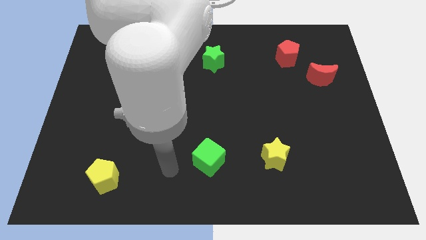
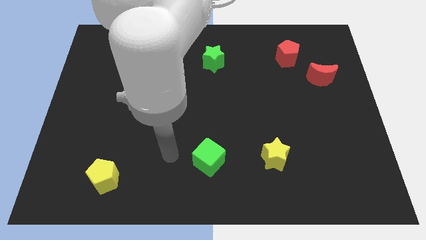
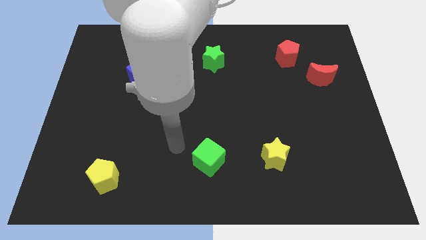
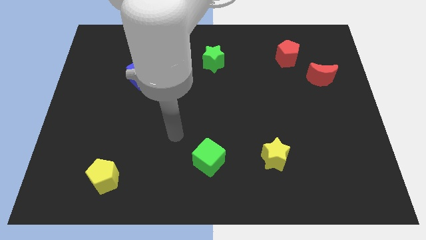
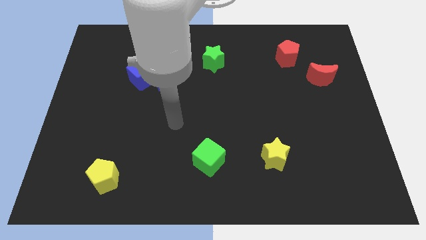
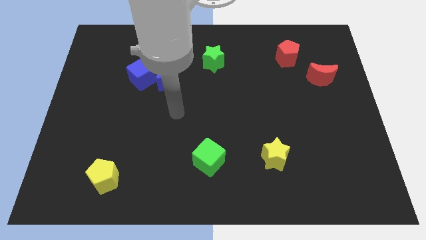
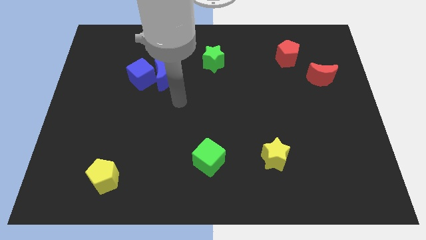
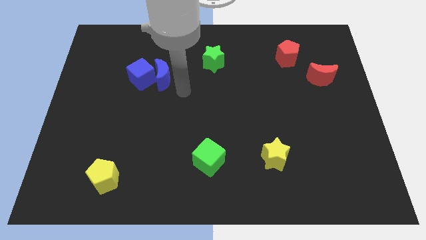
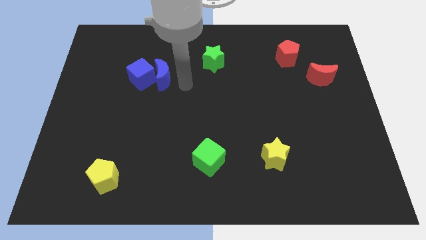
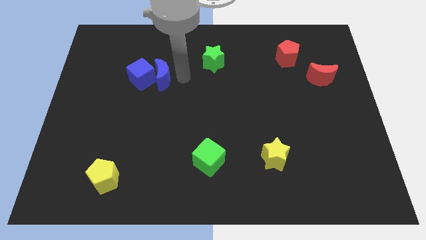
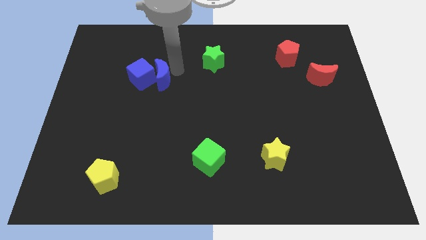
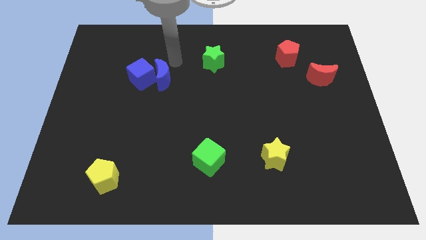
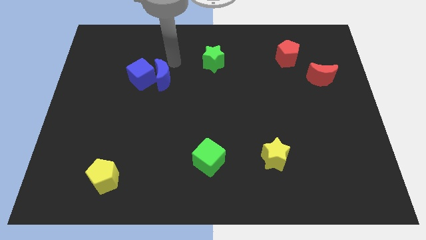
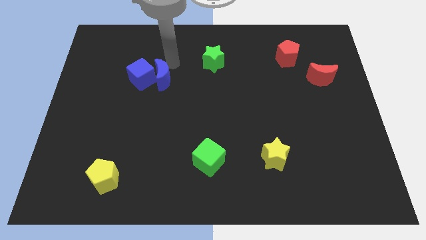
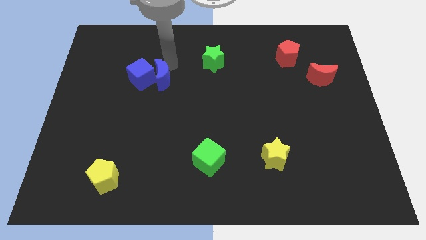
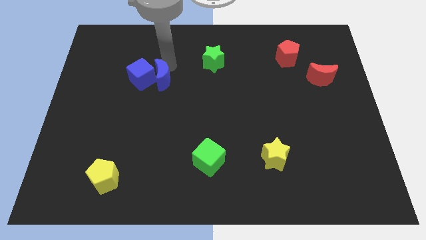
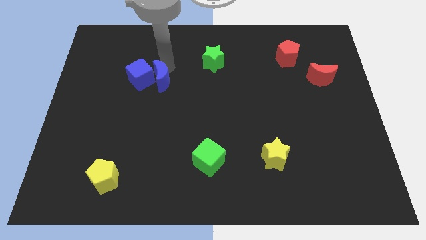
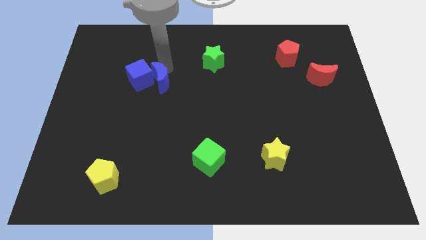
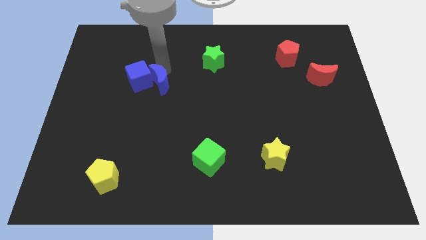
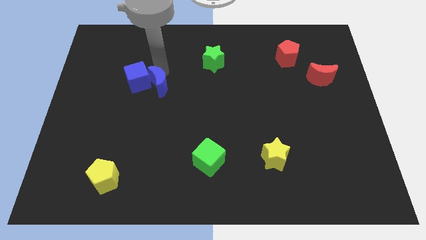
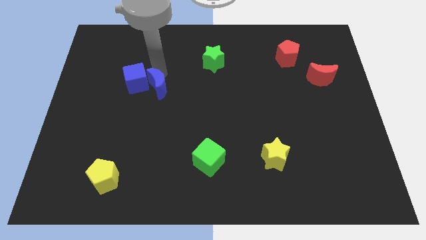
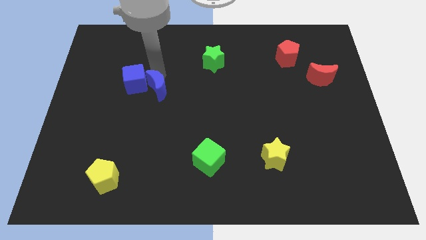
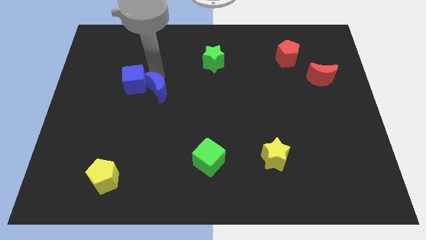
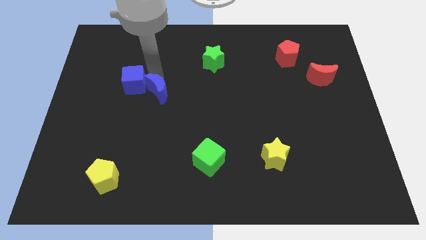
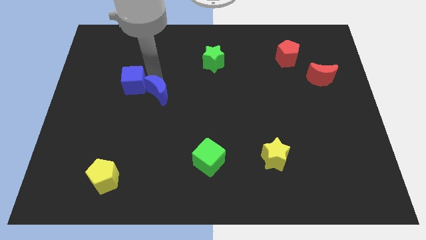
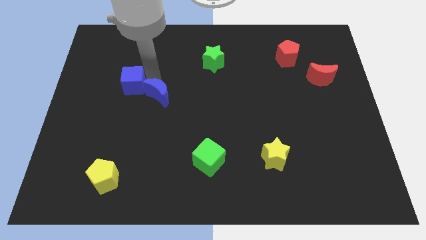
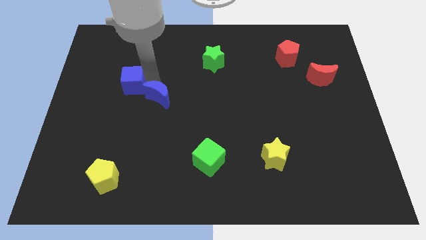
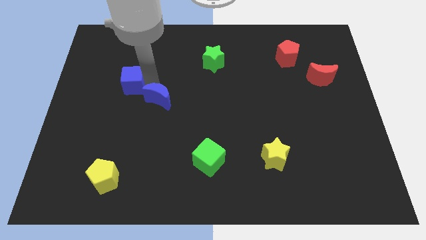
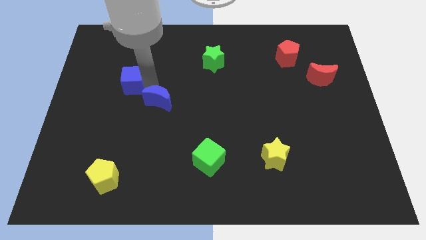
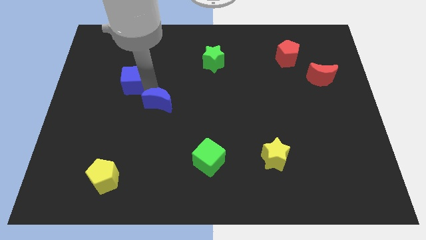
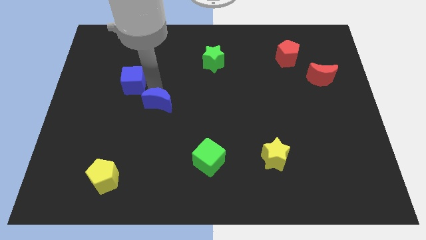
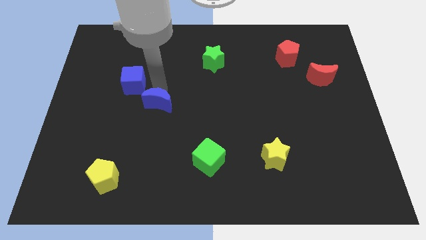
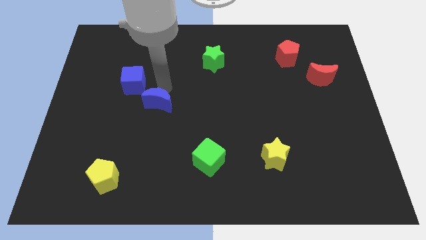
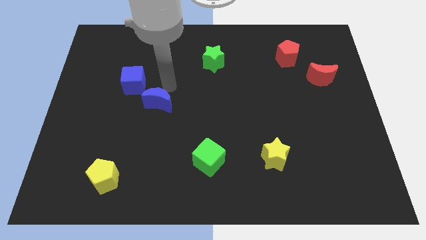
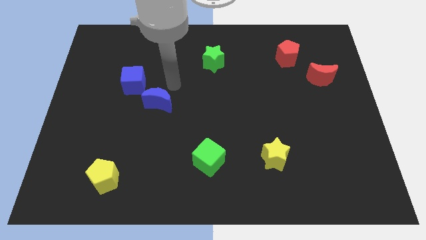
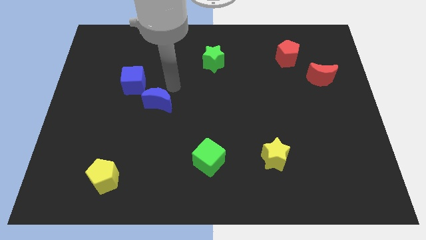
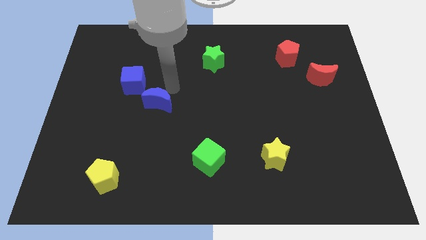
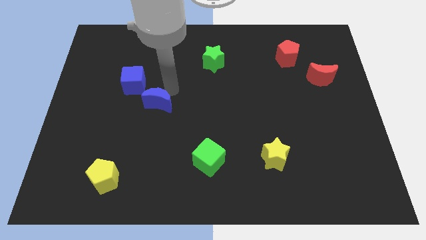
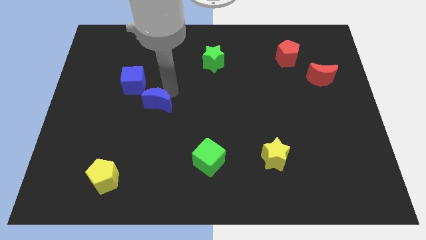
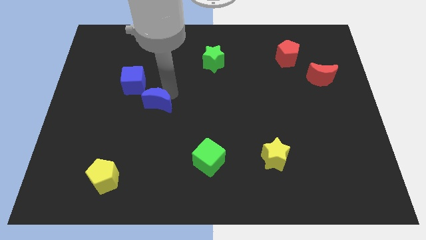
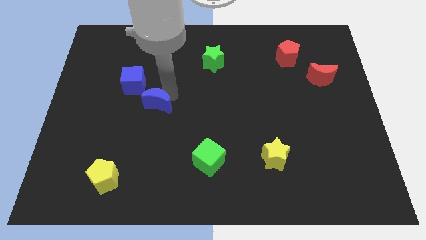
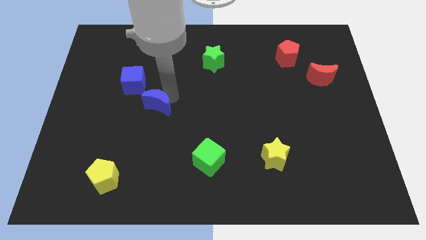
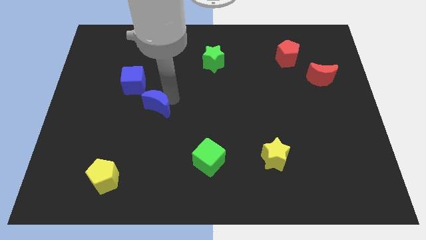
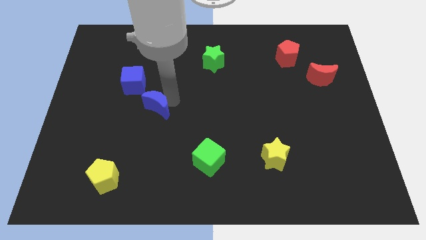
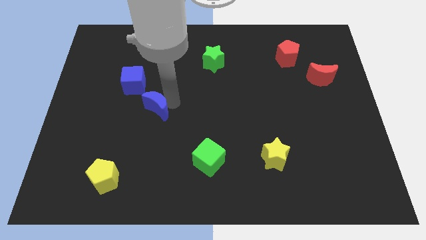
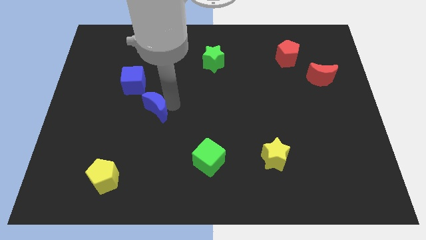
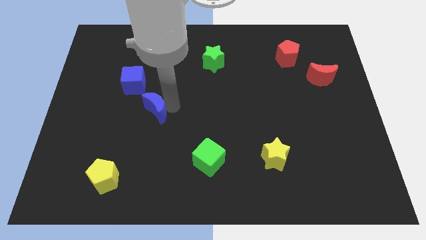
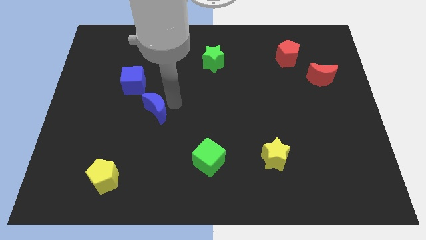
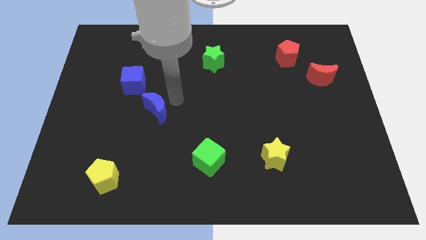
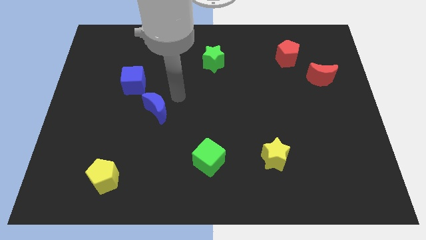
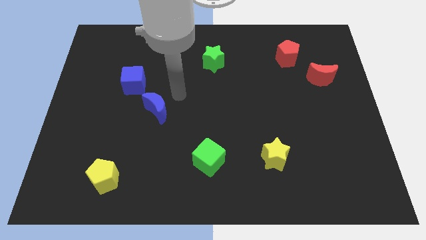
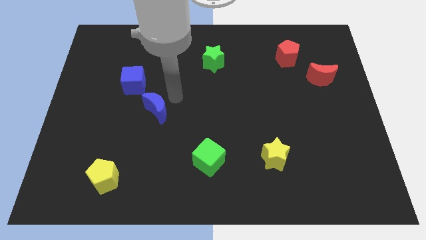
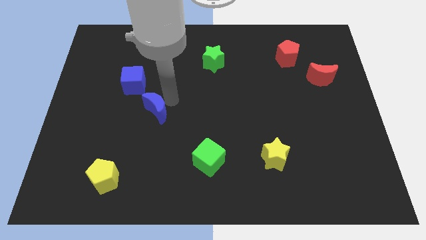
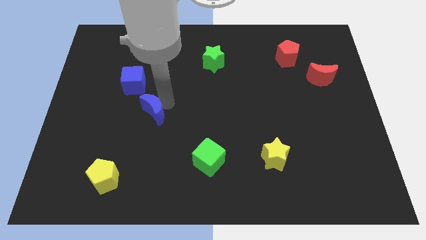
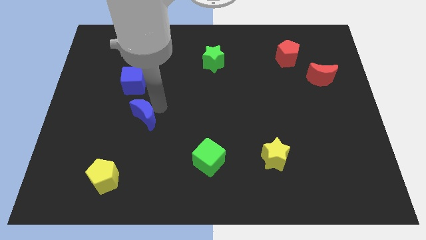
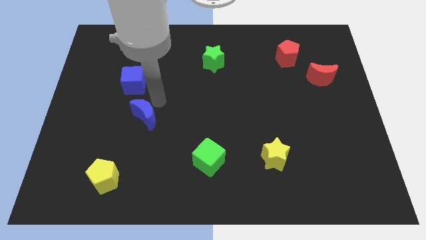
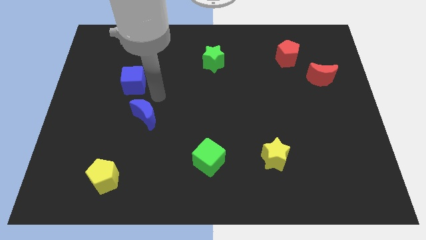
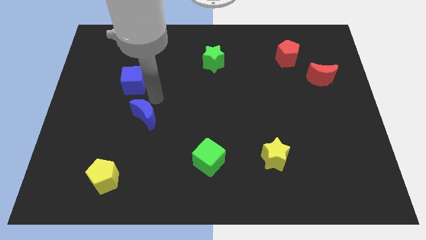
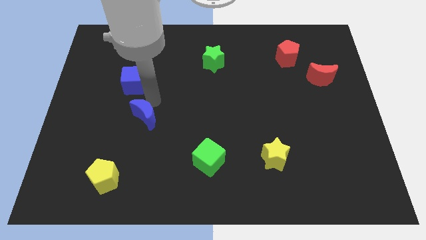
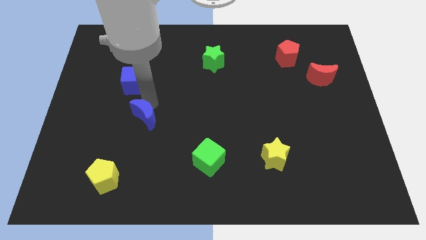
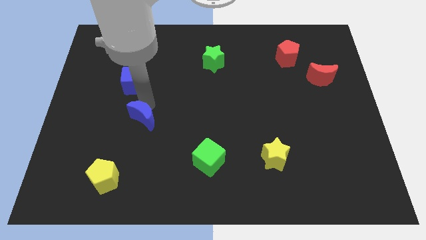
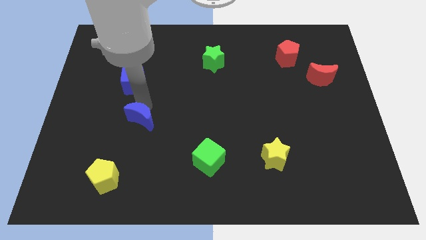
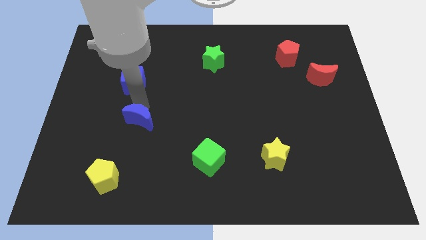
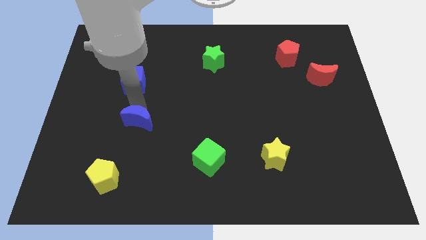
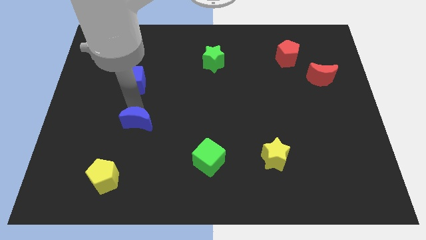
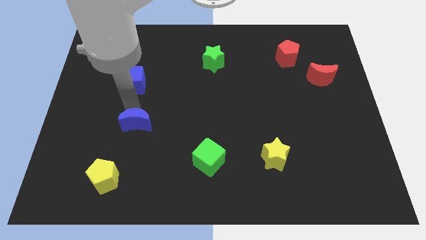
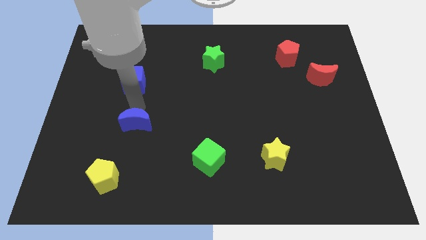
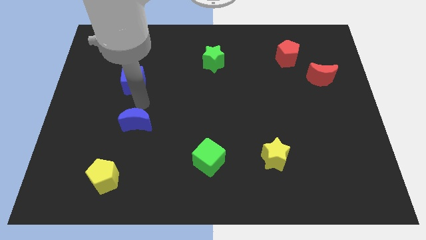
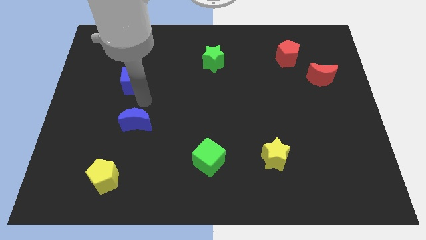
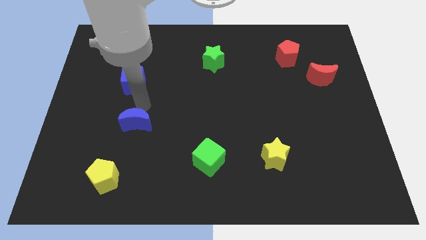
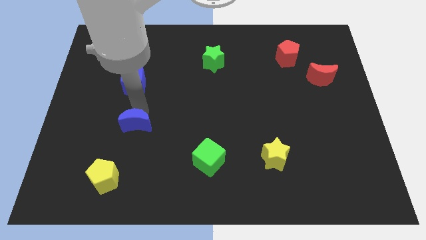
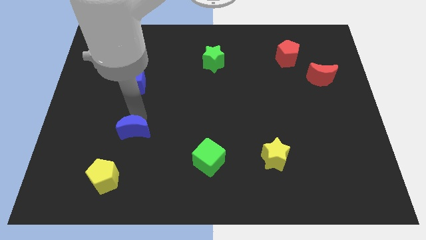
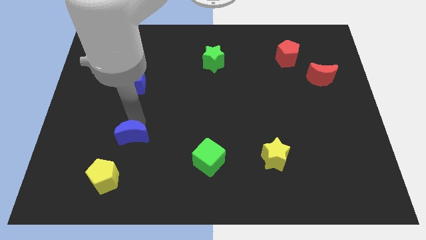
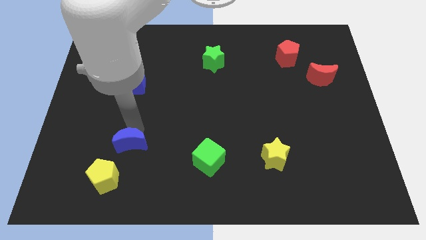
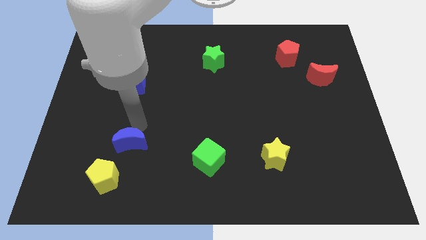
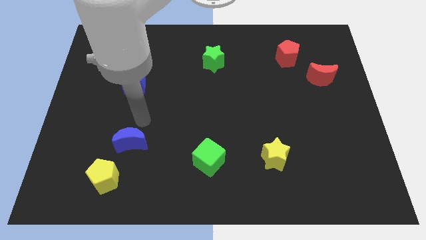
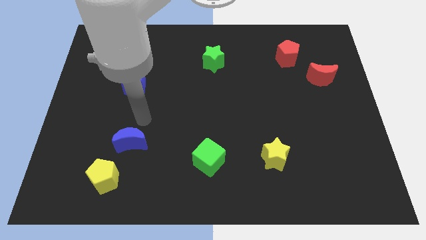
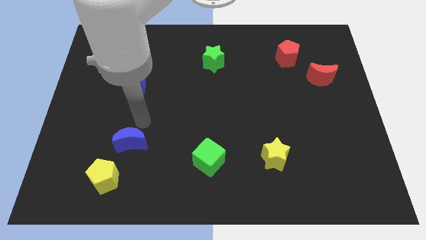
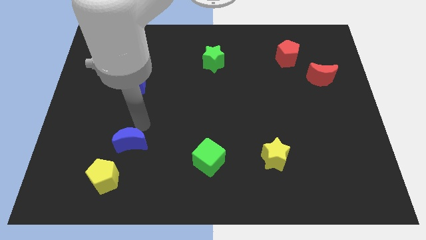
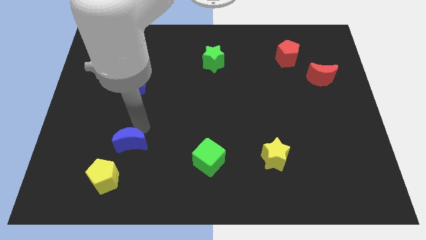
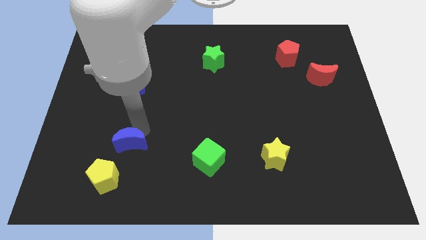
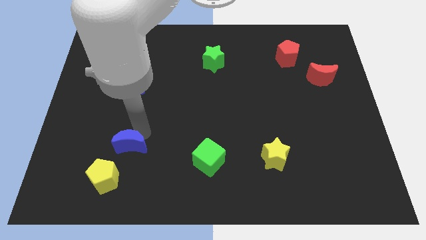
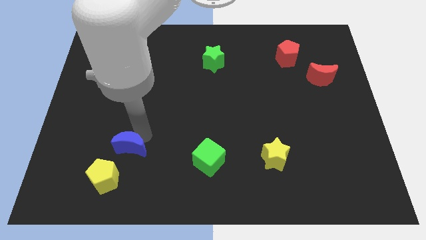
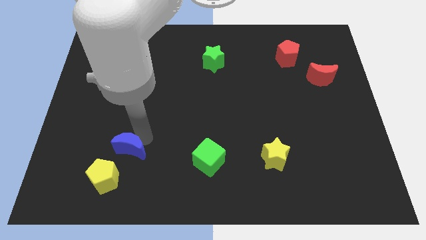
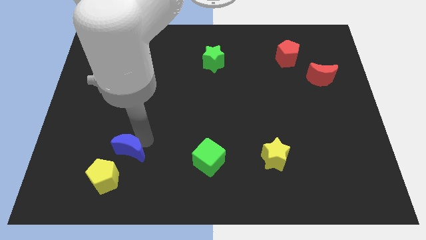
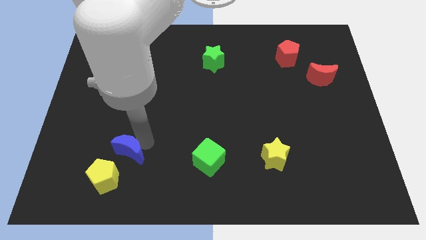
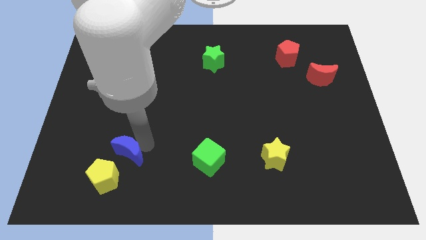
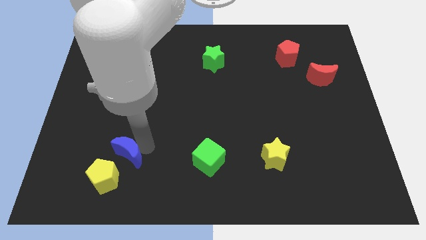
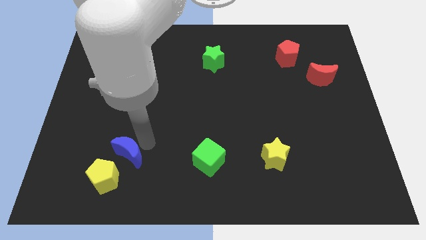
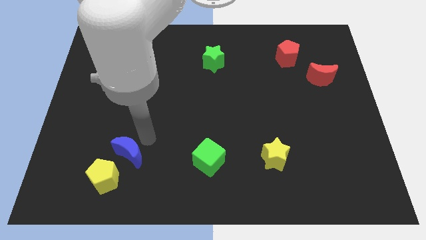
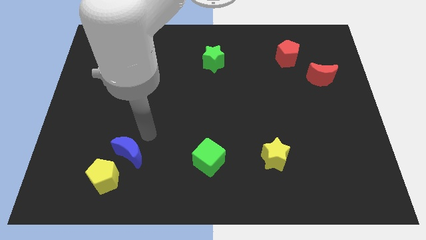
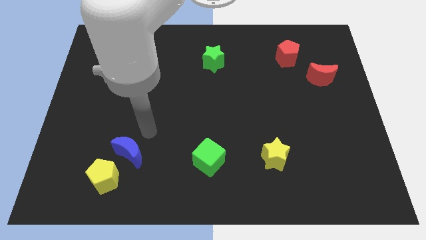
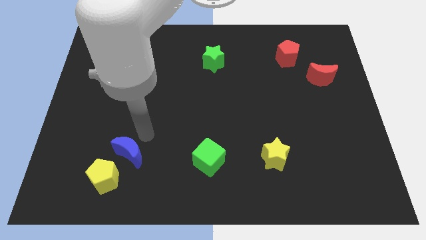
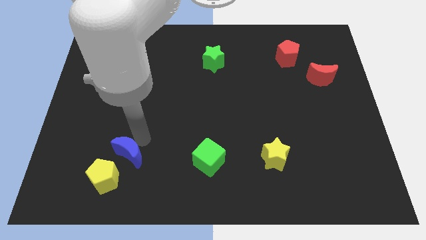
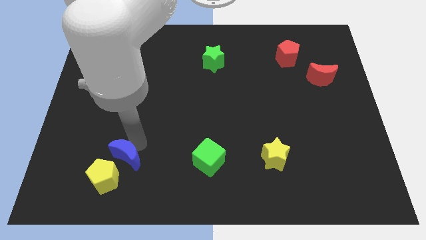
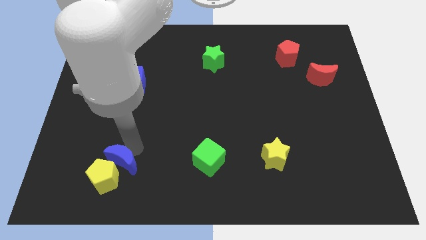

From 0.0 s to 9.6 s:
slide the blue moon next to the yellow pentagon
